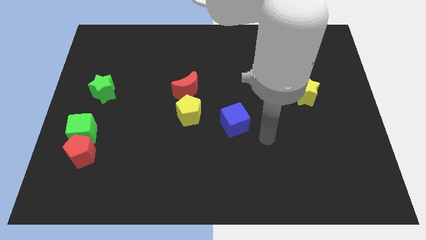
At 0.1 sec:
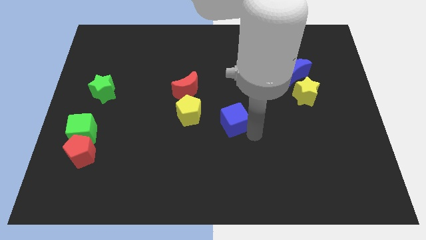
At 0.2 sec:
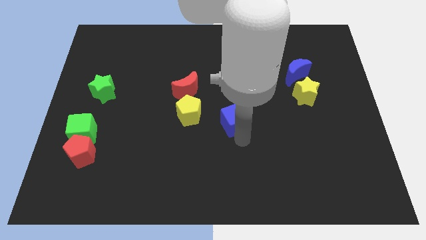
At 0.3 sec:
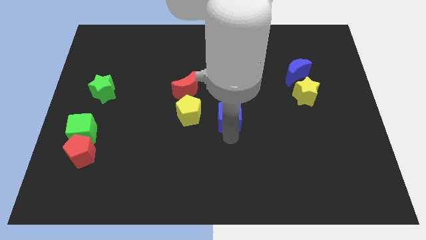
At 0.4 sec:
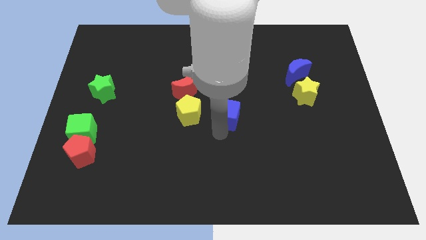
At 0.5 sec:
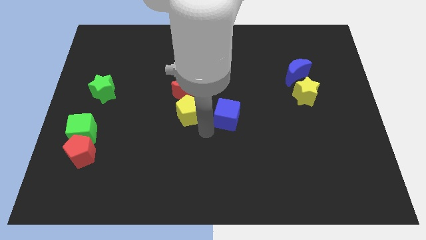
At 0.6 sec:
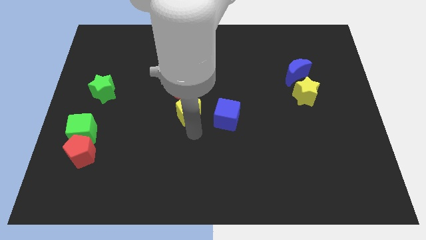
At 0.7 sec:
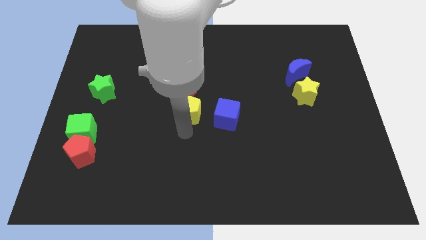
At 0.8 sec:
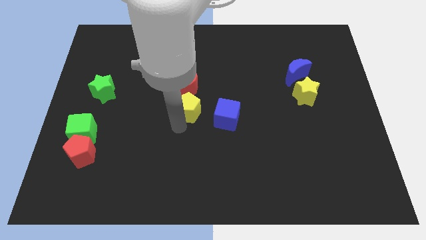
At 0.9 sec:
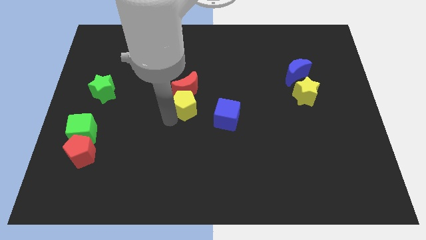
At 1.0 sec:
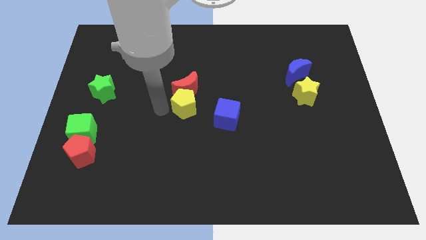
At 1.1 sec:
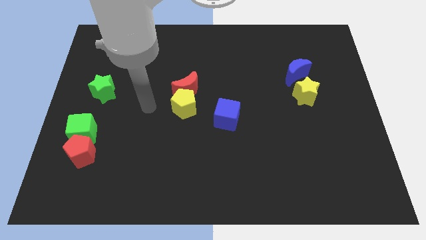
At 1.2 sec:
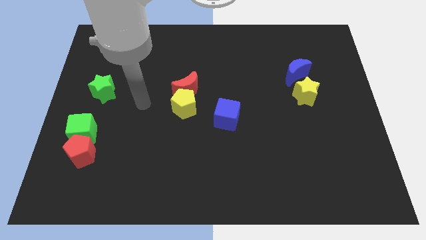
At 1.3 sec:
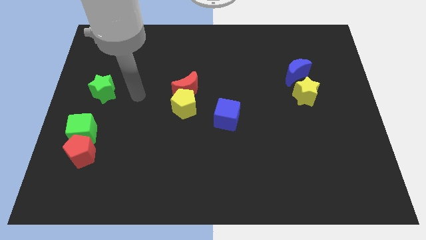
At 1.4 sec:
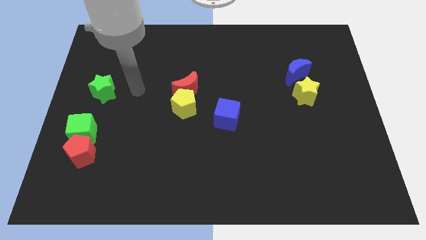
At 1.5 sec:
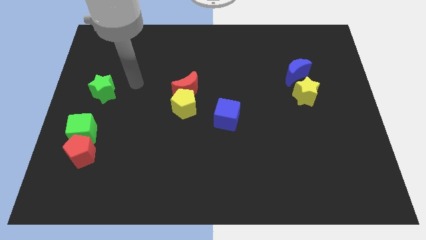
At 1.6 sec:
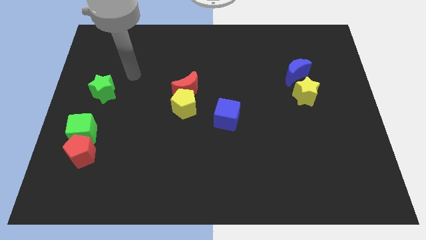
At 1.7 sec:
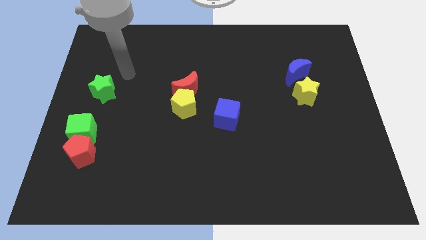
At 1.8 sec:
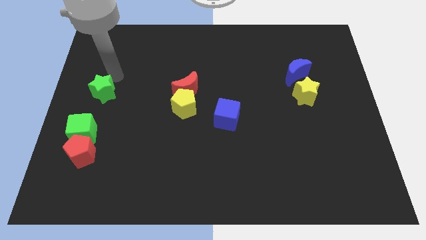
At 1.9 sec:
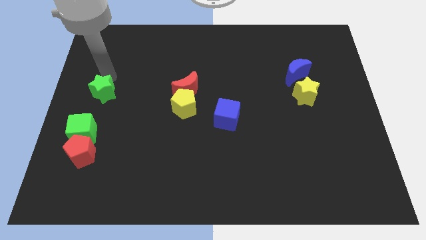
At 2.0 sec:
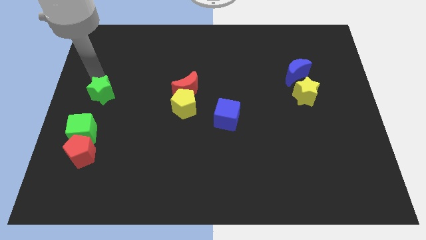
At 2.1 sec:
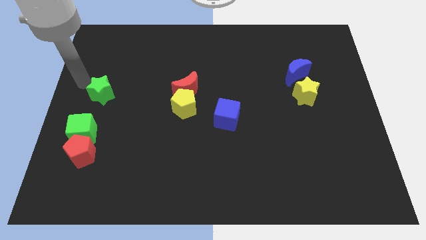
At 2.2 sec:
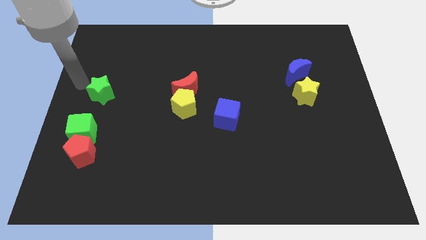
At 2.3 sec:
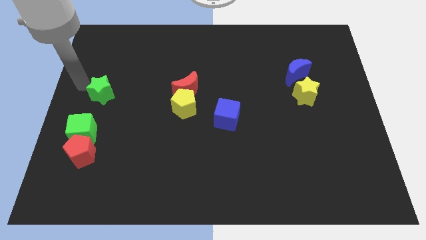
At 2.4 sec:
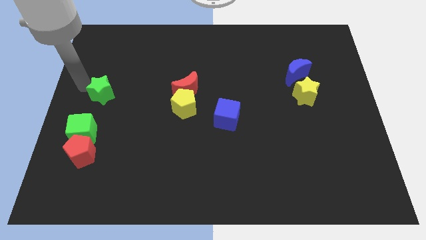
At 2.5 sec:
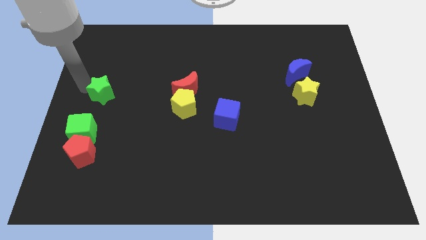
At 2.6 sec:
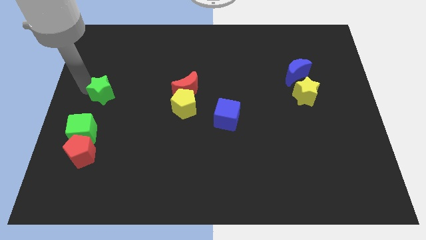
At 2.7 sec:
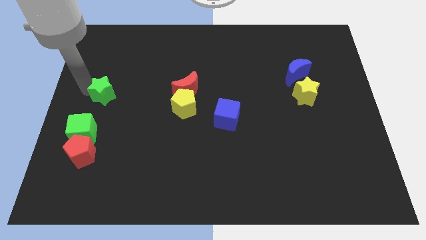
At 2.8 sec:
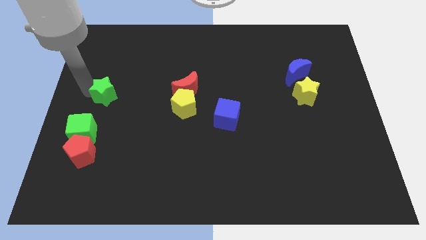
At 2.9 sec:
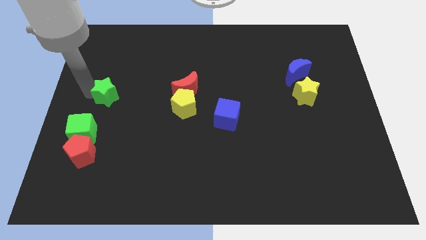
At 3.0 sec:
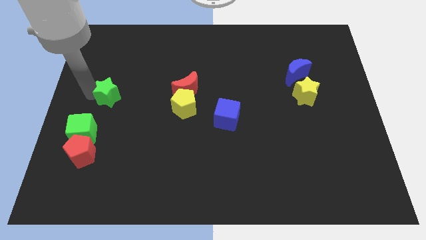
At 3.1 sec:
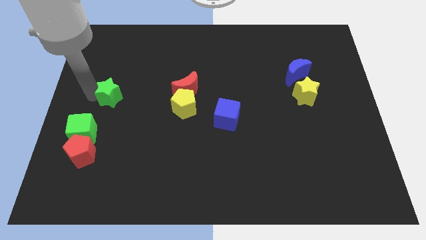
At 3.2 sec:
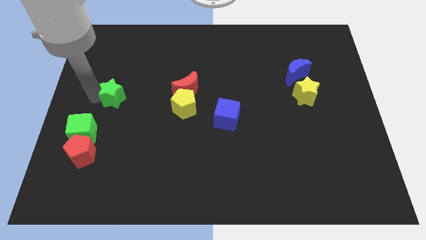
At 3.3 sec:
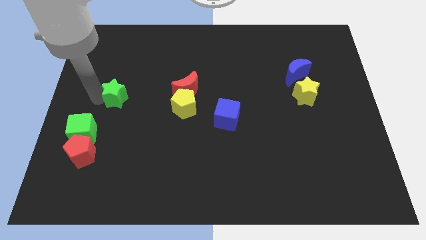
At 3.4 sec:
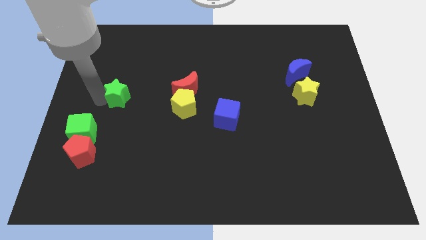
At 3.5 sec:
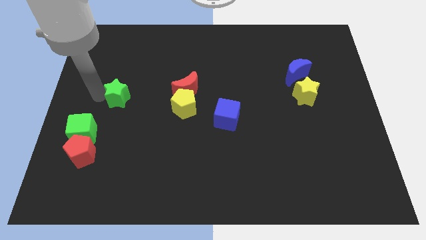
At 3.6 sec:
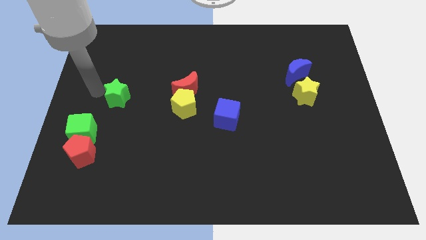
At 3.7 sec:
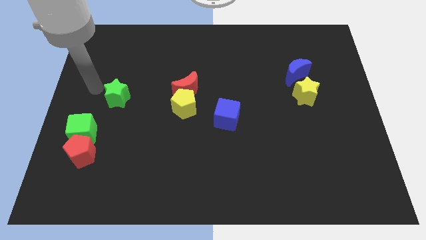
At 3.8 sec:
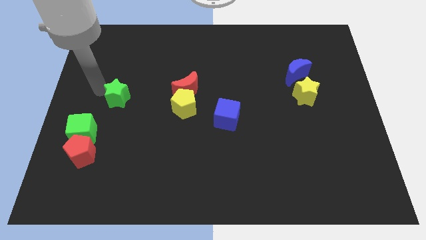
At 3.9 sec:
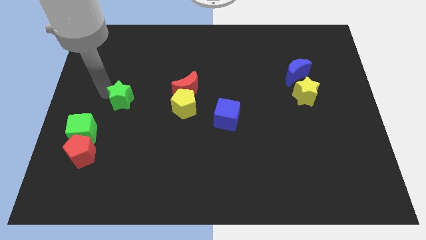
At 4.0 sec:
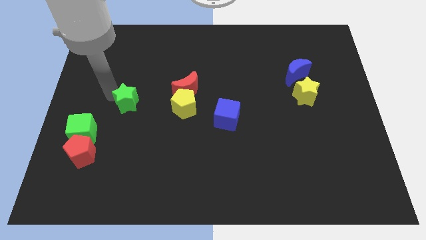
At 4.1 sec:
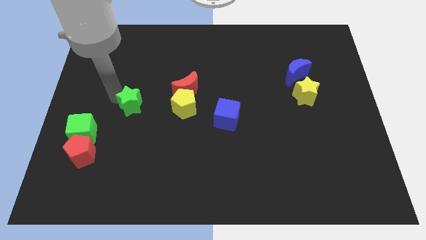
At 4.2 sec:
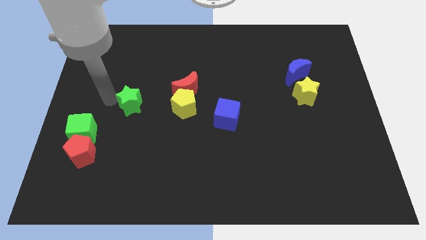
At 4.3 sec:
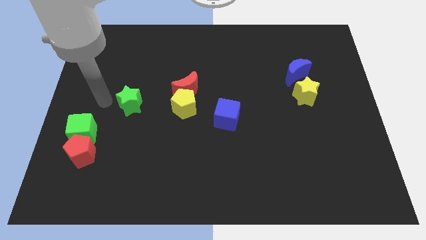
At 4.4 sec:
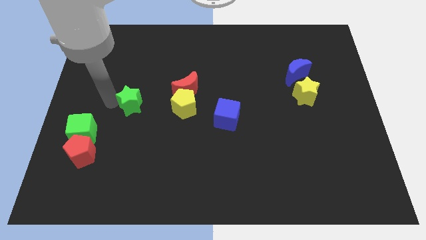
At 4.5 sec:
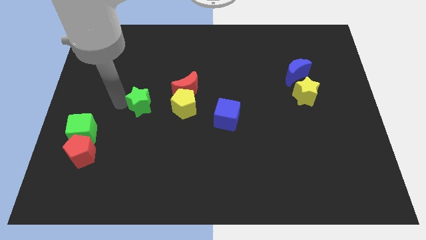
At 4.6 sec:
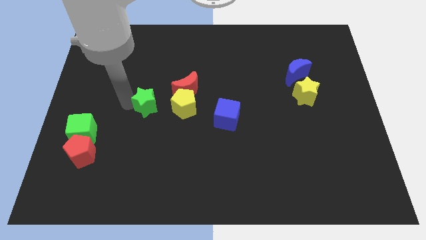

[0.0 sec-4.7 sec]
move the green star to the bottom left of the red moon

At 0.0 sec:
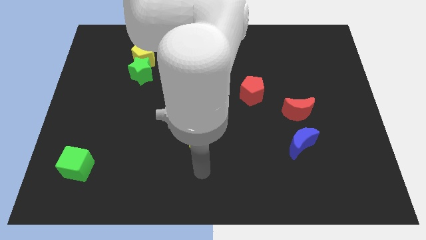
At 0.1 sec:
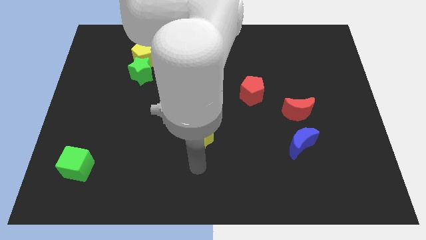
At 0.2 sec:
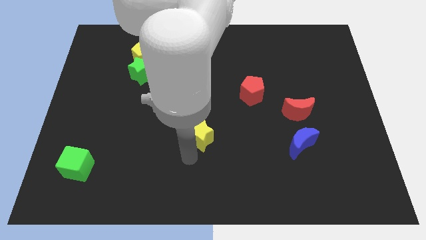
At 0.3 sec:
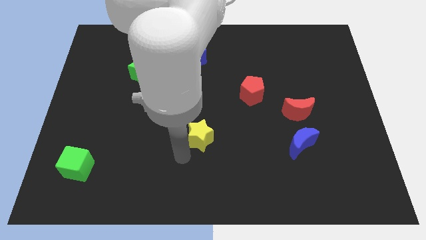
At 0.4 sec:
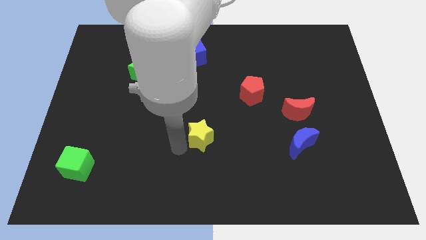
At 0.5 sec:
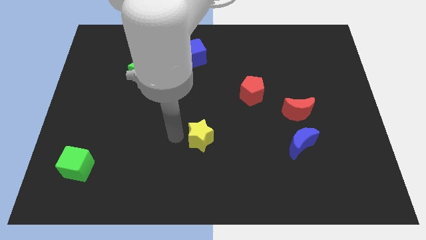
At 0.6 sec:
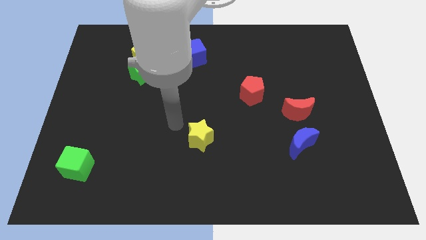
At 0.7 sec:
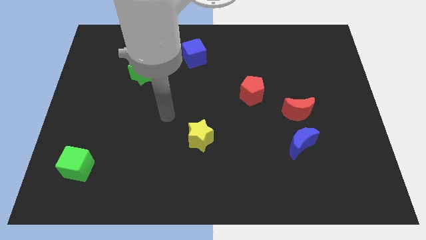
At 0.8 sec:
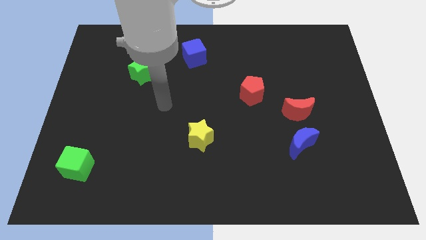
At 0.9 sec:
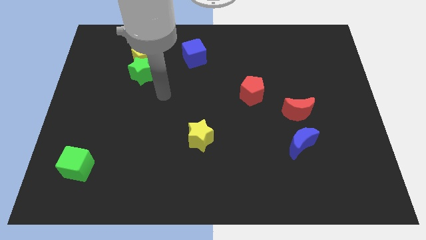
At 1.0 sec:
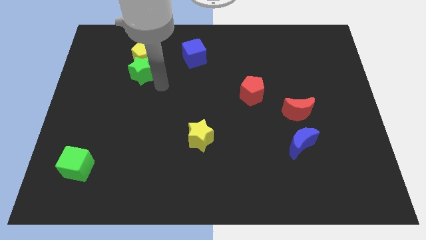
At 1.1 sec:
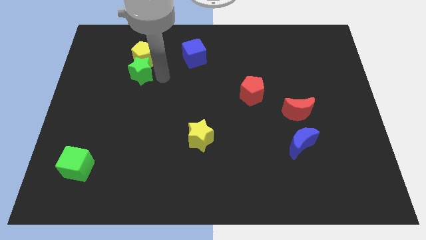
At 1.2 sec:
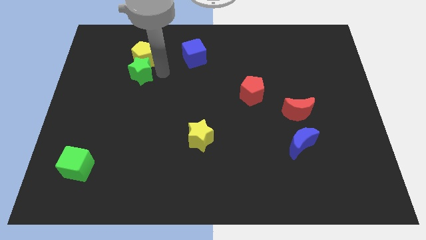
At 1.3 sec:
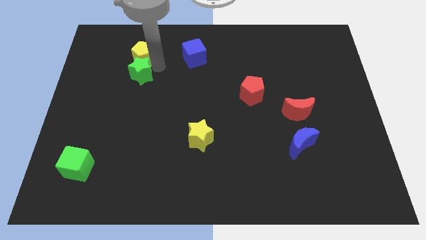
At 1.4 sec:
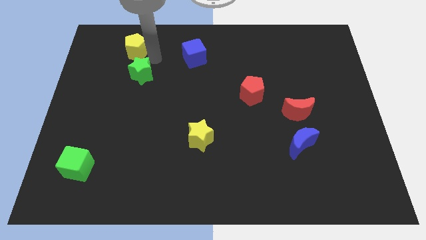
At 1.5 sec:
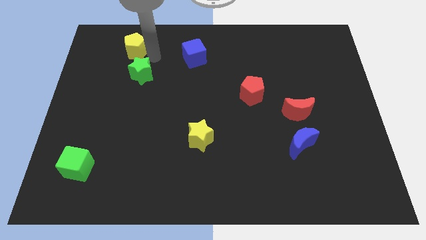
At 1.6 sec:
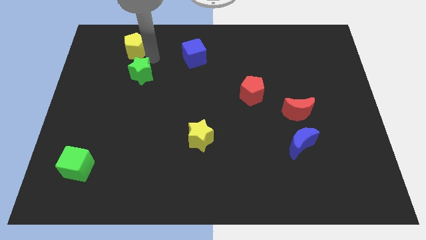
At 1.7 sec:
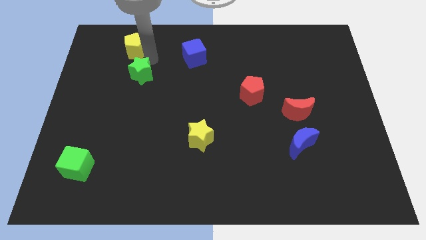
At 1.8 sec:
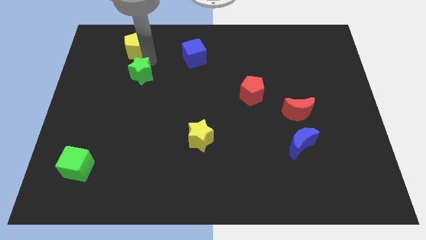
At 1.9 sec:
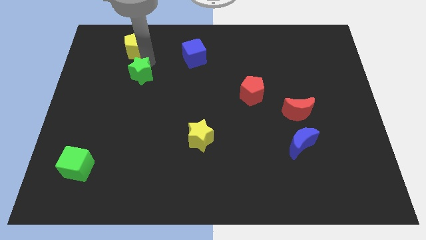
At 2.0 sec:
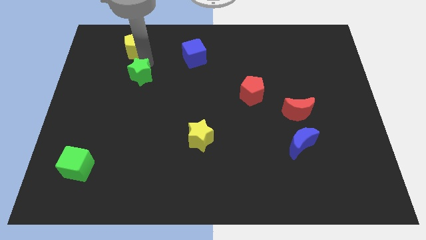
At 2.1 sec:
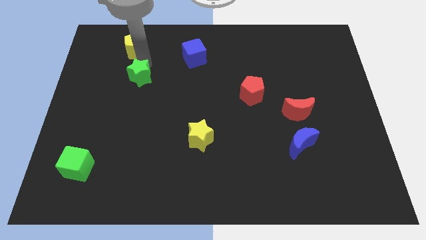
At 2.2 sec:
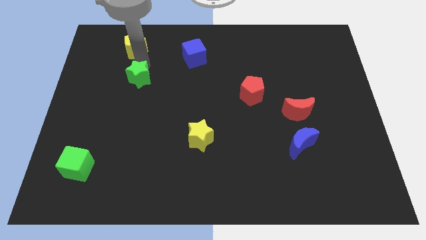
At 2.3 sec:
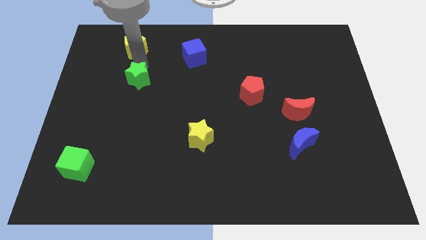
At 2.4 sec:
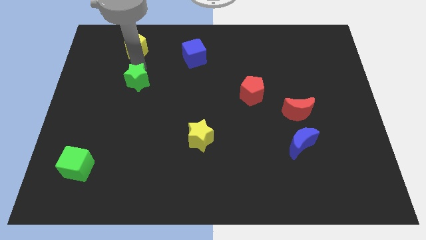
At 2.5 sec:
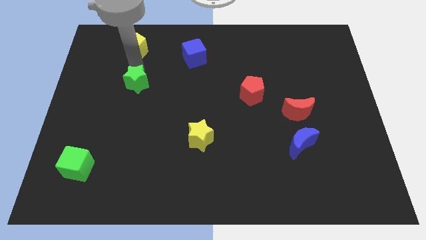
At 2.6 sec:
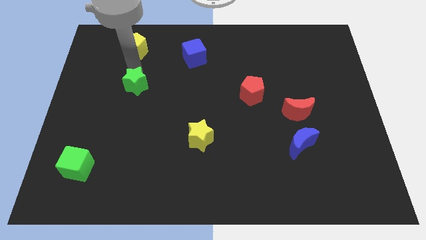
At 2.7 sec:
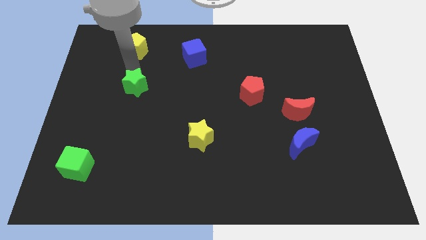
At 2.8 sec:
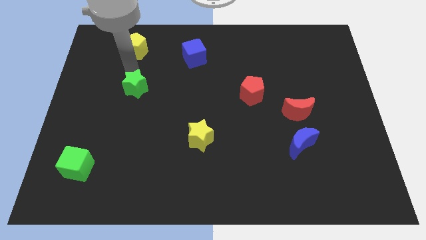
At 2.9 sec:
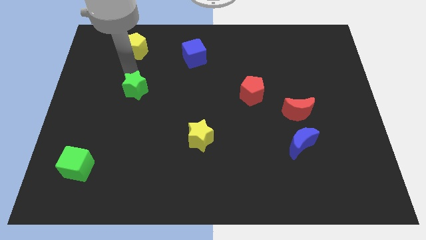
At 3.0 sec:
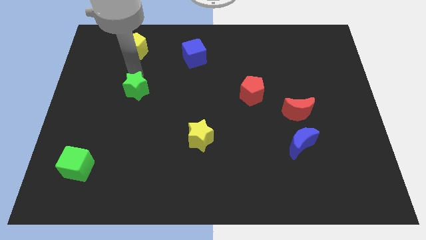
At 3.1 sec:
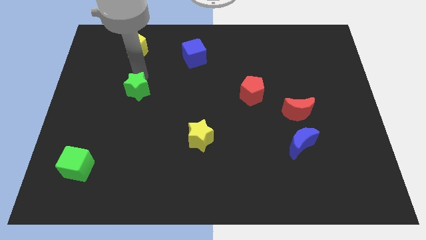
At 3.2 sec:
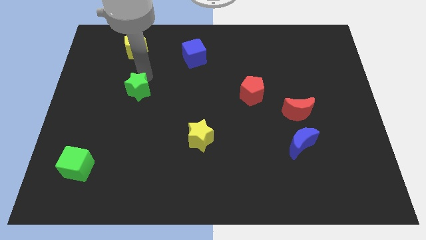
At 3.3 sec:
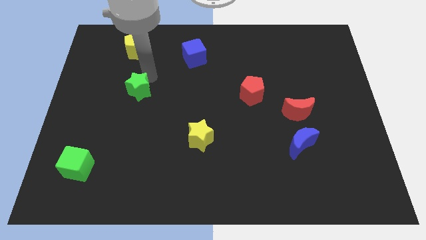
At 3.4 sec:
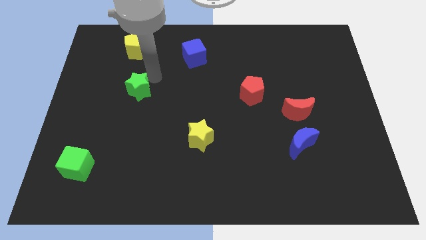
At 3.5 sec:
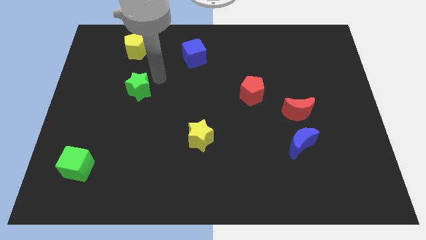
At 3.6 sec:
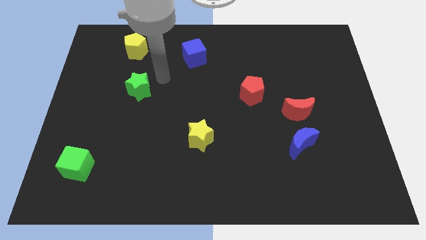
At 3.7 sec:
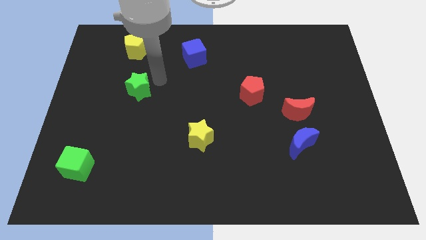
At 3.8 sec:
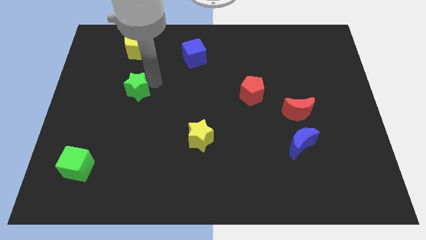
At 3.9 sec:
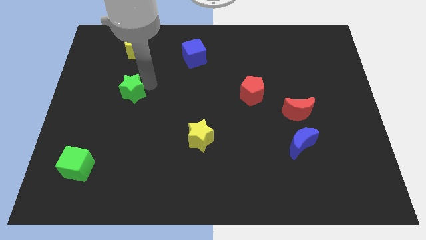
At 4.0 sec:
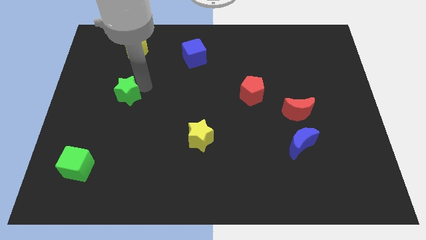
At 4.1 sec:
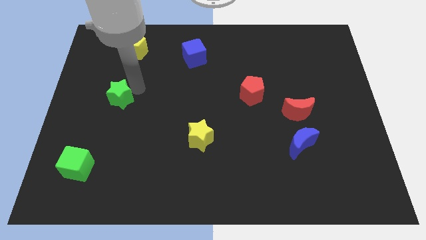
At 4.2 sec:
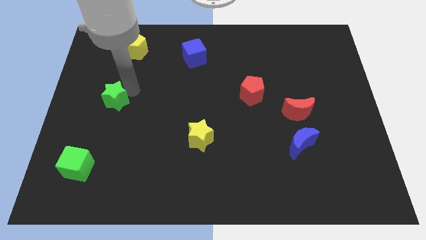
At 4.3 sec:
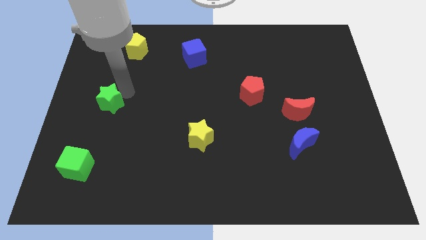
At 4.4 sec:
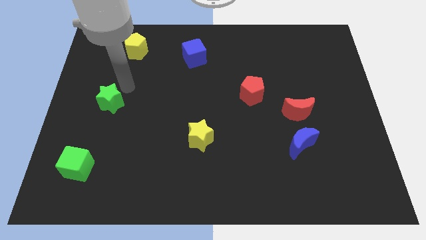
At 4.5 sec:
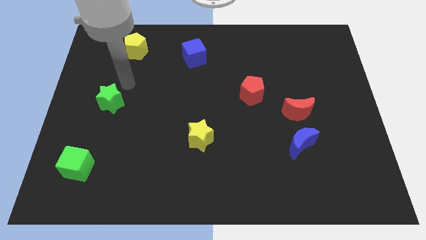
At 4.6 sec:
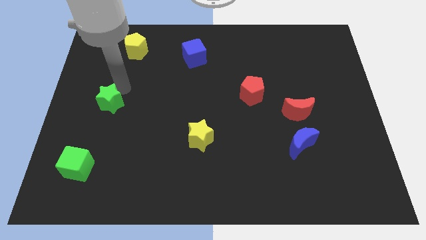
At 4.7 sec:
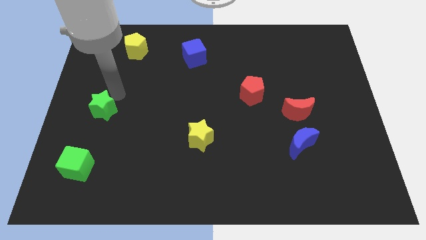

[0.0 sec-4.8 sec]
move the green star to the top side of the green cube
